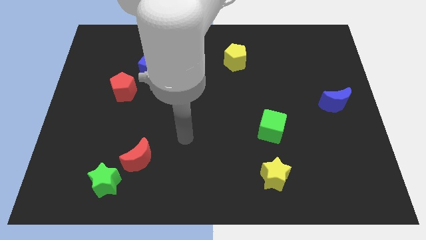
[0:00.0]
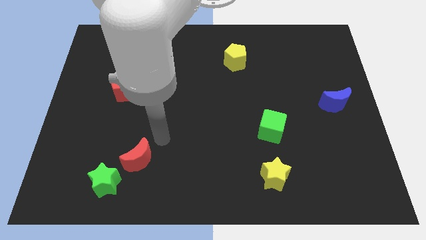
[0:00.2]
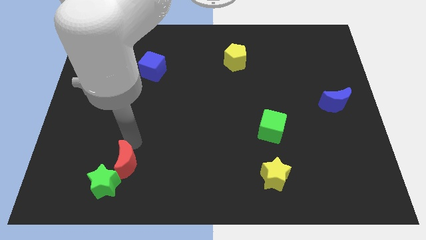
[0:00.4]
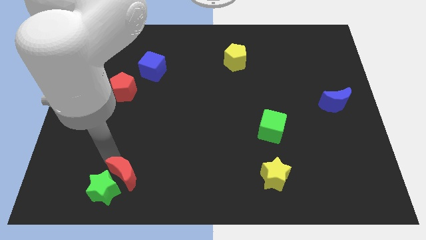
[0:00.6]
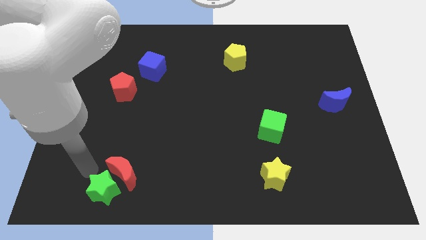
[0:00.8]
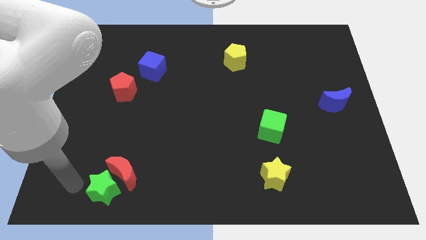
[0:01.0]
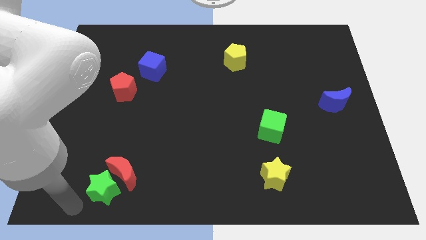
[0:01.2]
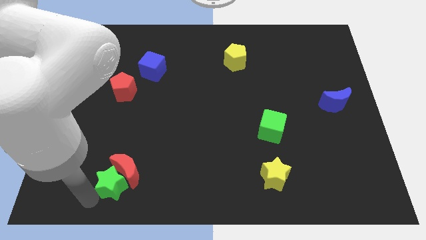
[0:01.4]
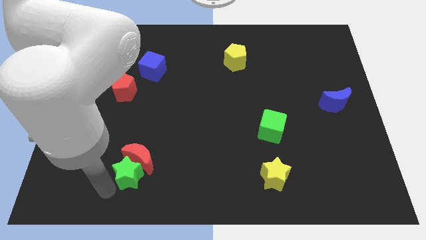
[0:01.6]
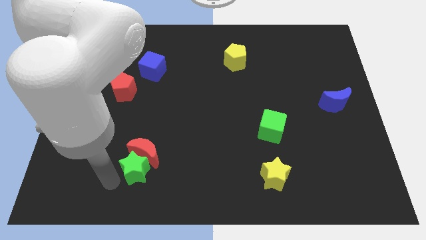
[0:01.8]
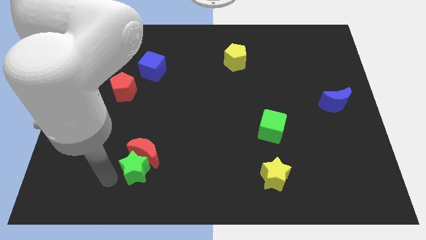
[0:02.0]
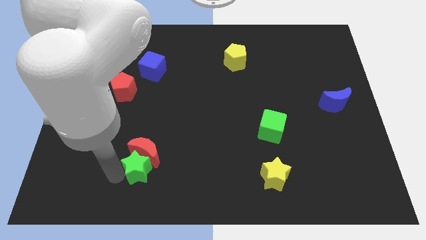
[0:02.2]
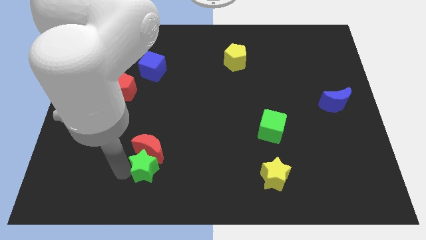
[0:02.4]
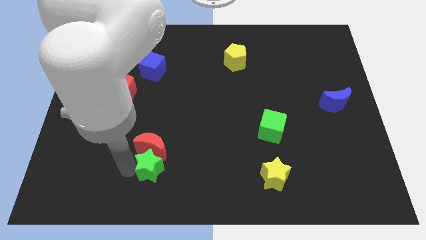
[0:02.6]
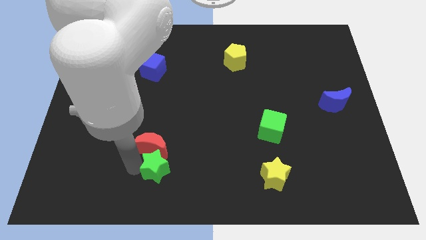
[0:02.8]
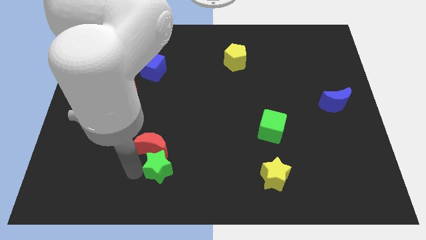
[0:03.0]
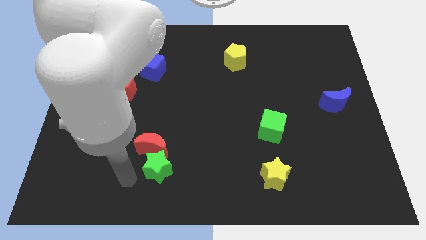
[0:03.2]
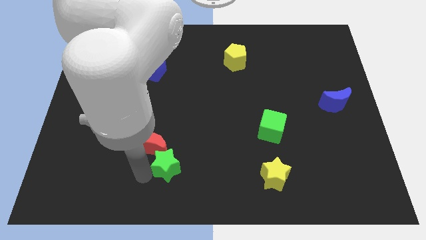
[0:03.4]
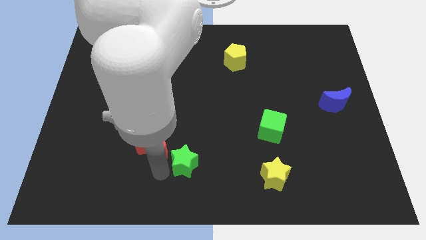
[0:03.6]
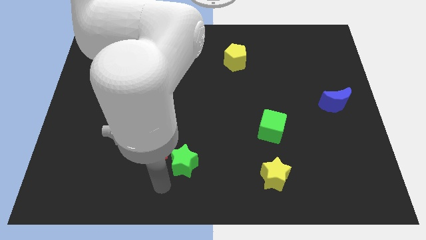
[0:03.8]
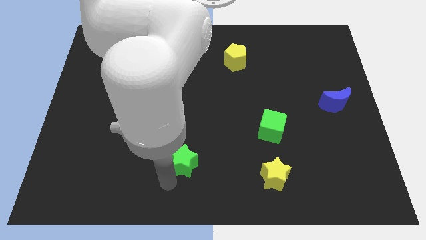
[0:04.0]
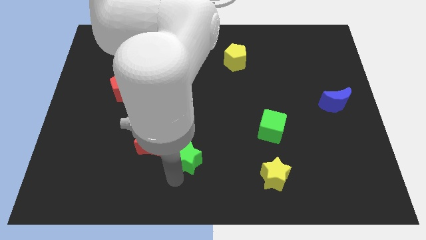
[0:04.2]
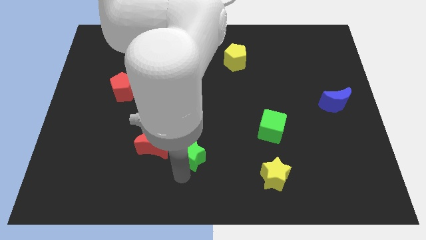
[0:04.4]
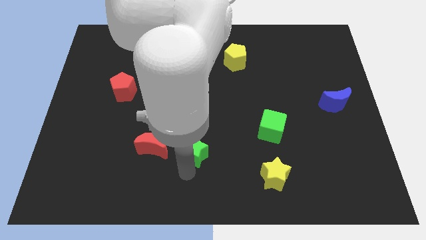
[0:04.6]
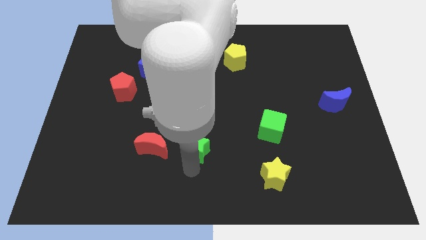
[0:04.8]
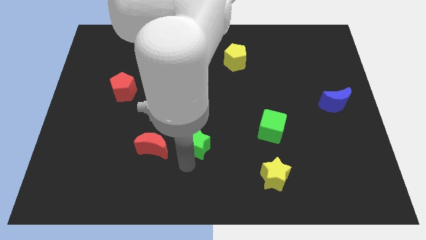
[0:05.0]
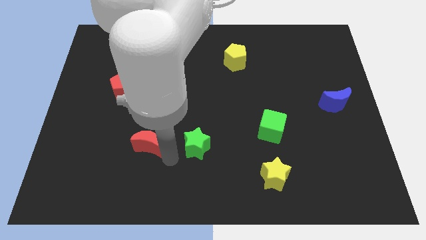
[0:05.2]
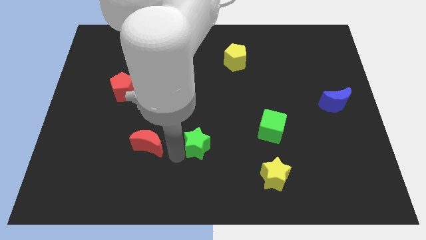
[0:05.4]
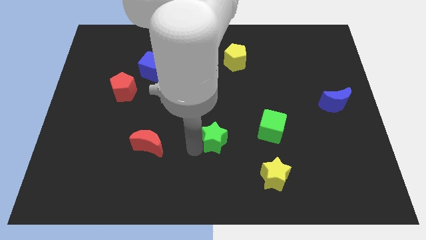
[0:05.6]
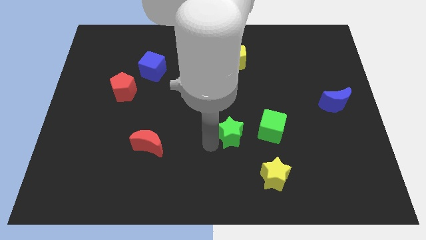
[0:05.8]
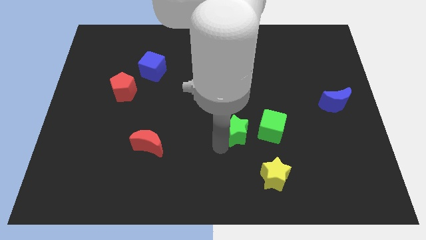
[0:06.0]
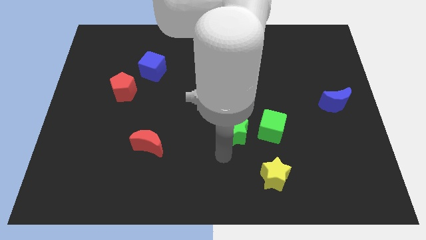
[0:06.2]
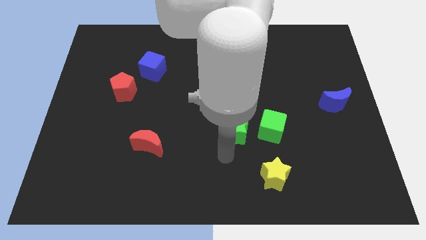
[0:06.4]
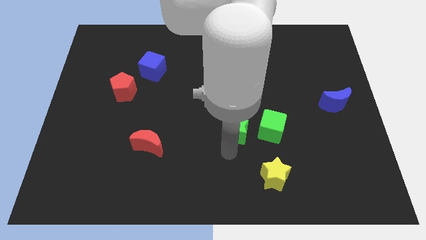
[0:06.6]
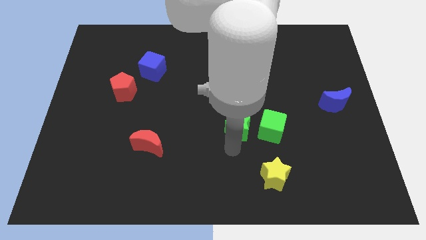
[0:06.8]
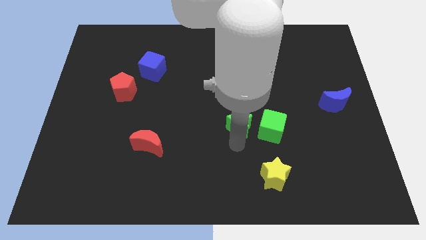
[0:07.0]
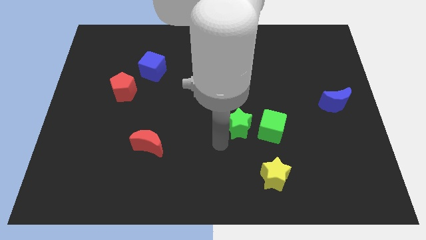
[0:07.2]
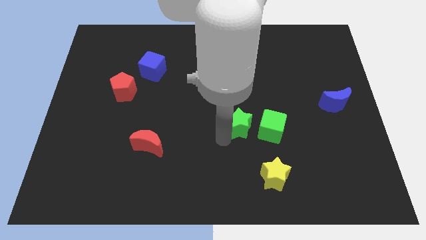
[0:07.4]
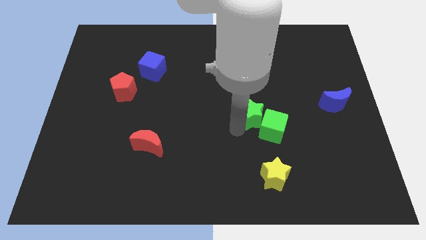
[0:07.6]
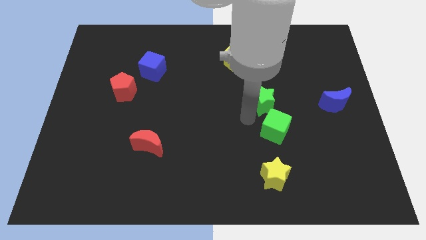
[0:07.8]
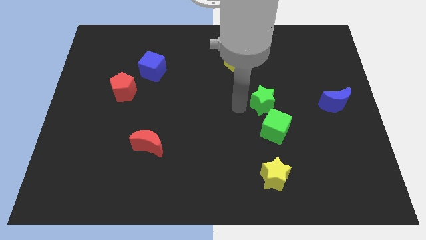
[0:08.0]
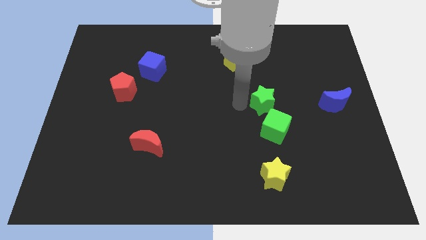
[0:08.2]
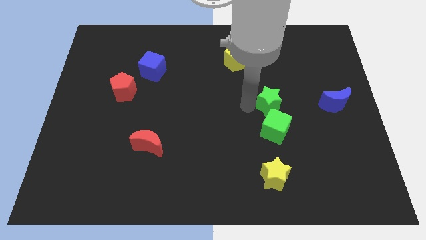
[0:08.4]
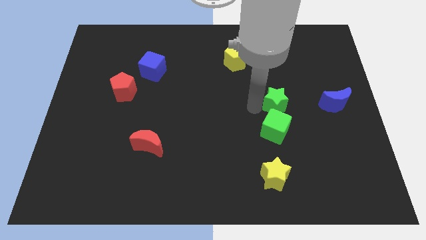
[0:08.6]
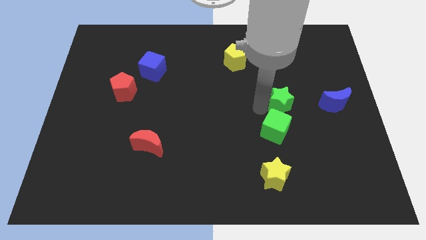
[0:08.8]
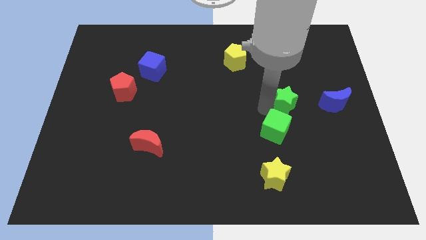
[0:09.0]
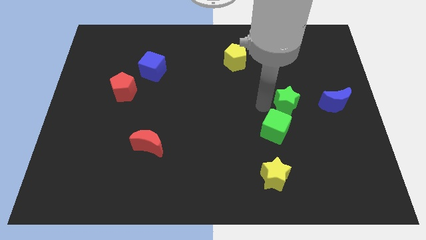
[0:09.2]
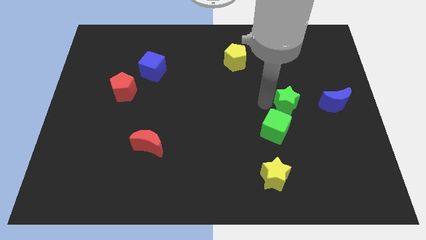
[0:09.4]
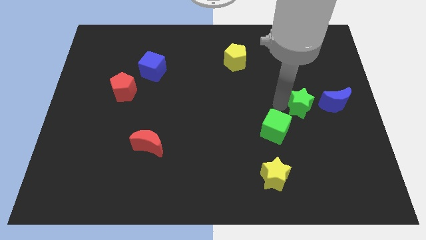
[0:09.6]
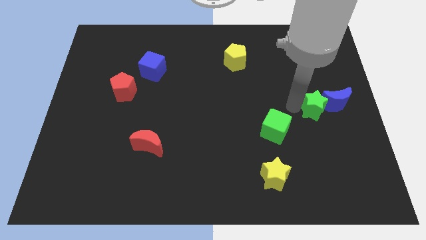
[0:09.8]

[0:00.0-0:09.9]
put the green star towards the blue moon

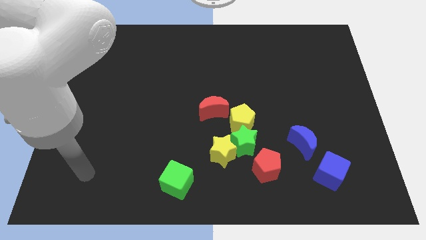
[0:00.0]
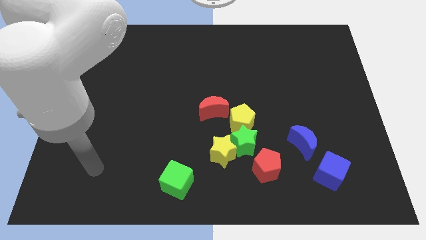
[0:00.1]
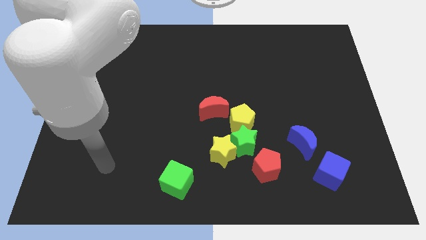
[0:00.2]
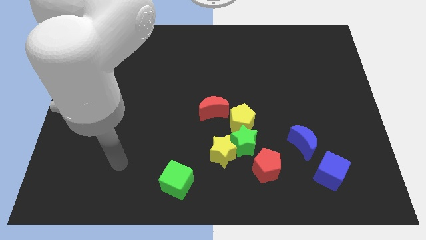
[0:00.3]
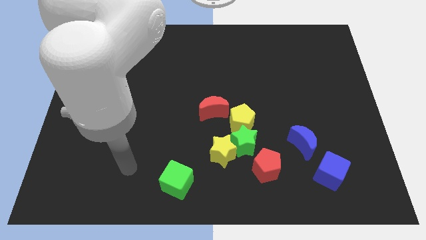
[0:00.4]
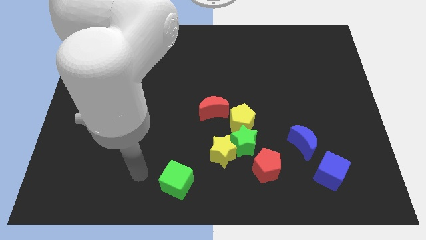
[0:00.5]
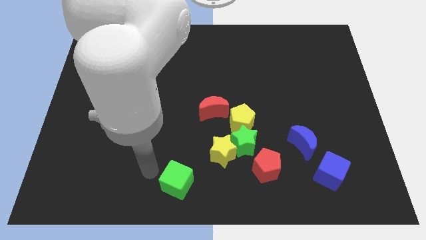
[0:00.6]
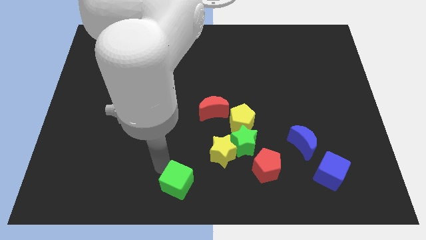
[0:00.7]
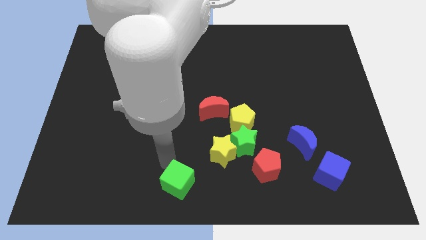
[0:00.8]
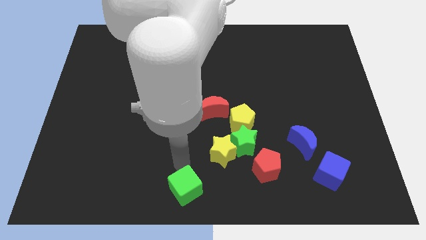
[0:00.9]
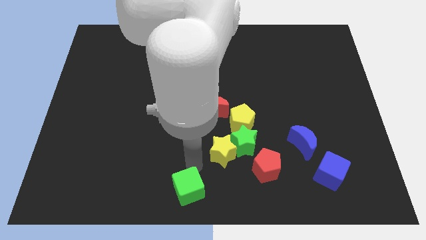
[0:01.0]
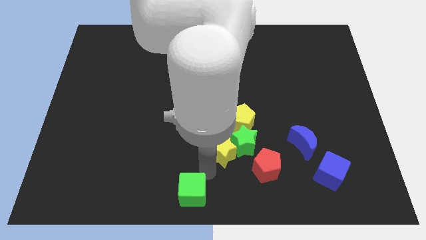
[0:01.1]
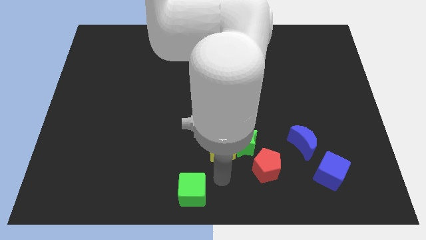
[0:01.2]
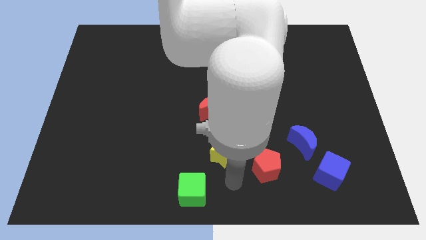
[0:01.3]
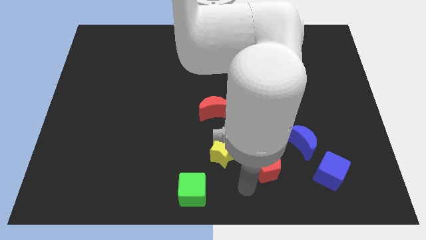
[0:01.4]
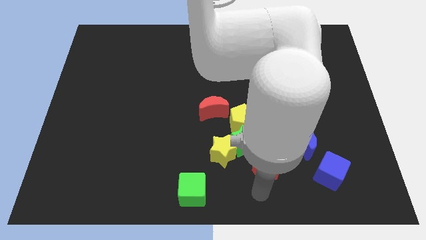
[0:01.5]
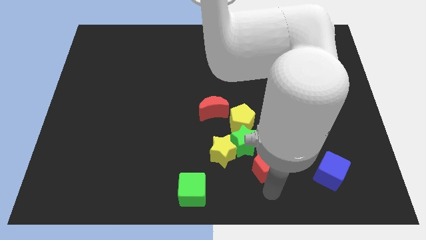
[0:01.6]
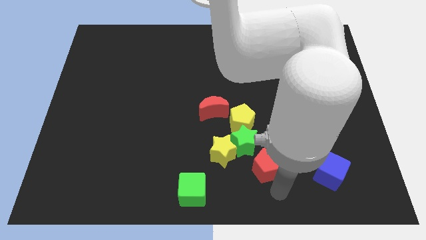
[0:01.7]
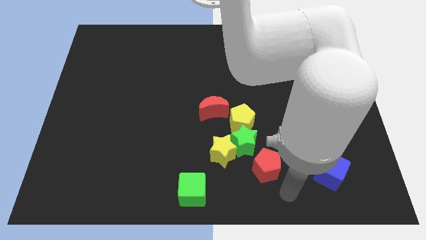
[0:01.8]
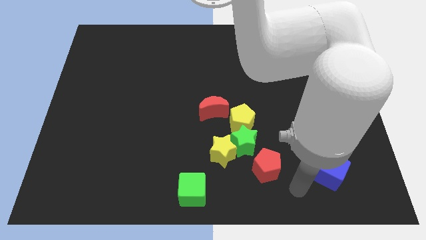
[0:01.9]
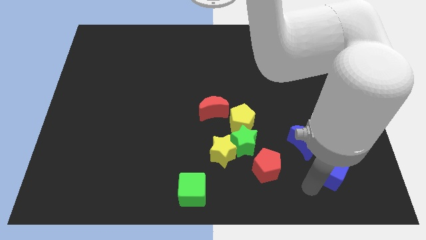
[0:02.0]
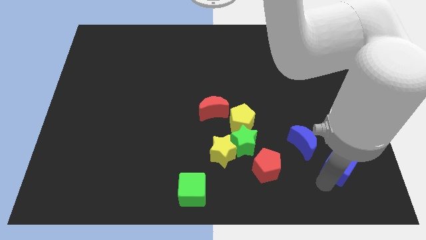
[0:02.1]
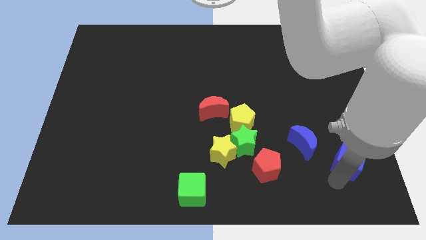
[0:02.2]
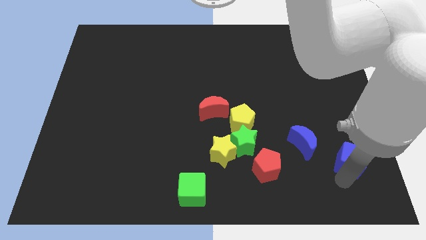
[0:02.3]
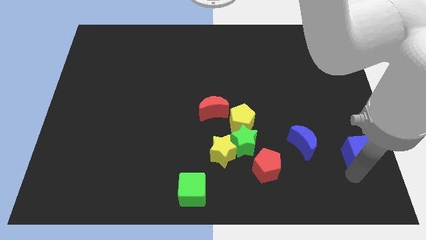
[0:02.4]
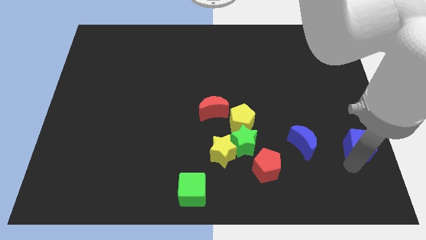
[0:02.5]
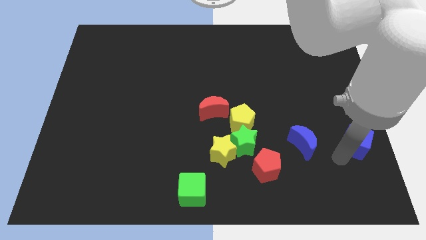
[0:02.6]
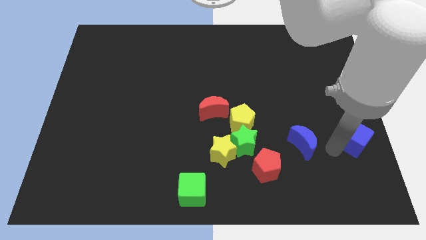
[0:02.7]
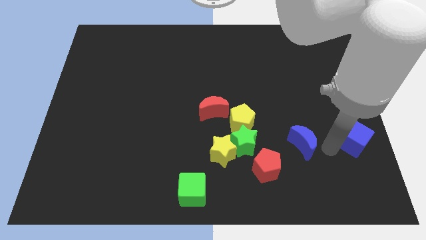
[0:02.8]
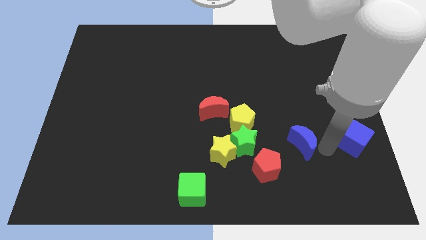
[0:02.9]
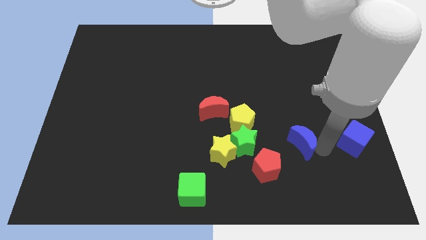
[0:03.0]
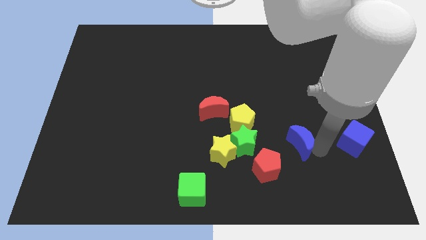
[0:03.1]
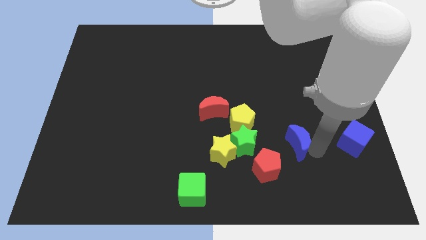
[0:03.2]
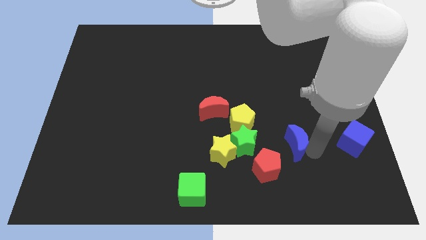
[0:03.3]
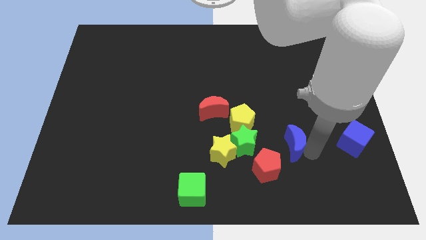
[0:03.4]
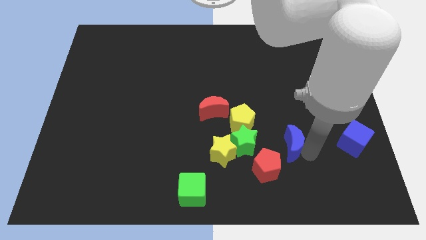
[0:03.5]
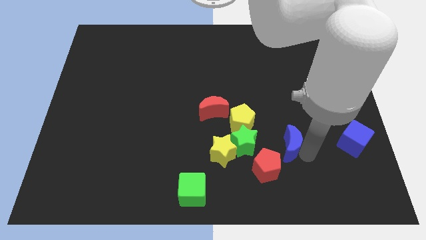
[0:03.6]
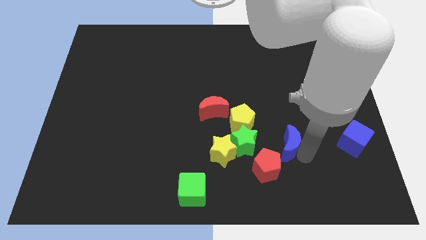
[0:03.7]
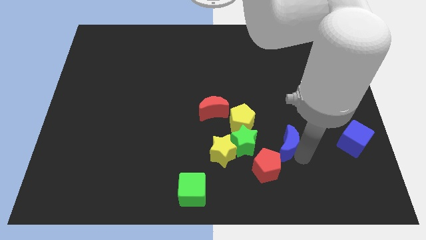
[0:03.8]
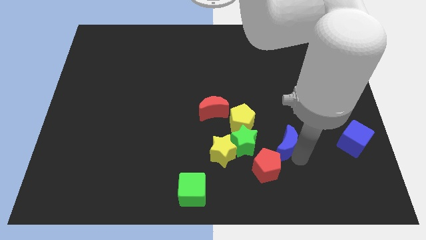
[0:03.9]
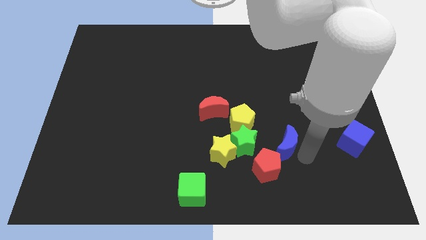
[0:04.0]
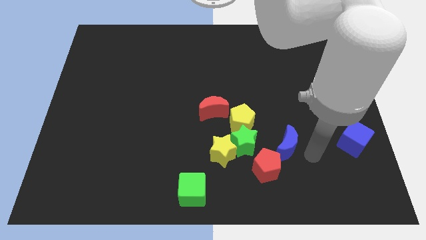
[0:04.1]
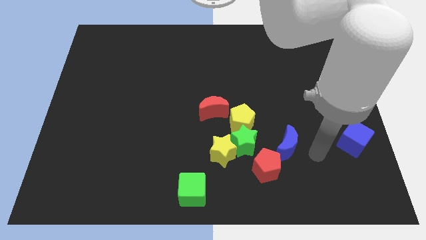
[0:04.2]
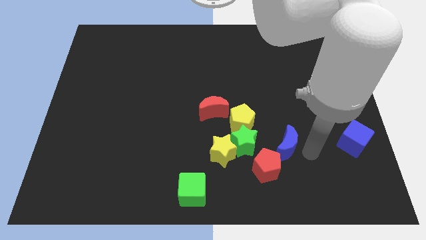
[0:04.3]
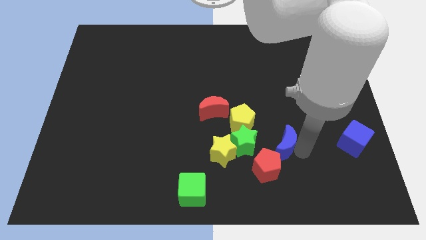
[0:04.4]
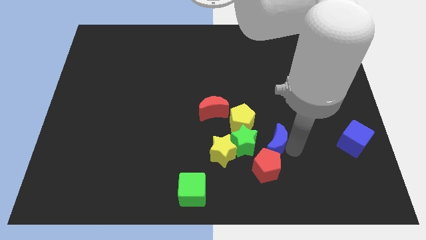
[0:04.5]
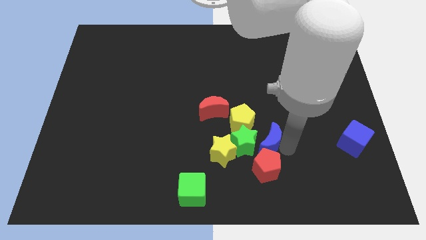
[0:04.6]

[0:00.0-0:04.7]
move the blue moon next to the green star
